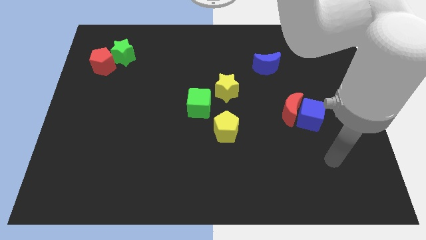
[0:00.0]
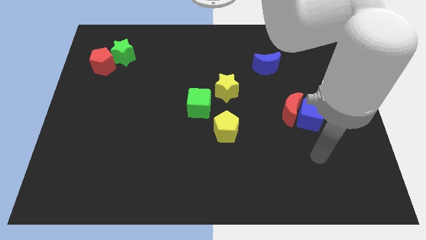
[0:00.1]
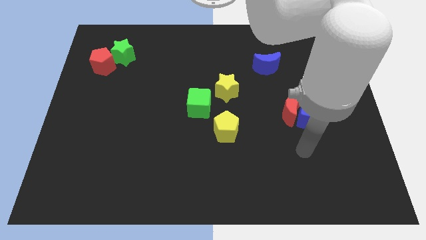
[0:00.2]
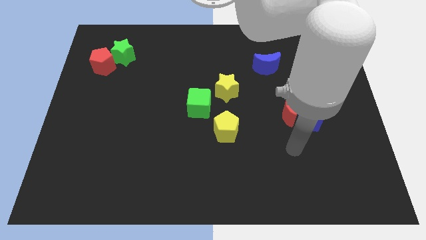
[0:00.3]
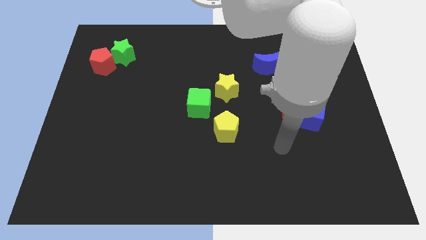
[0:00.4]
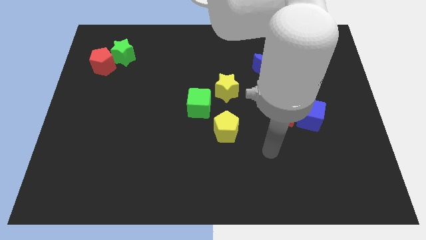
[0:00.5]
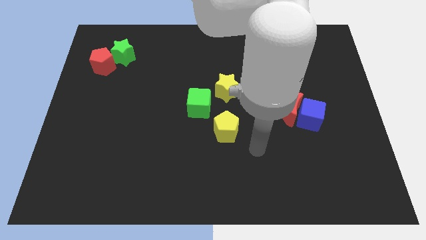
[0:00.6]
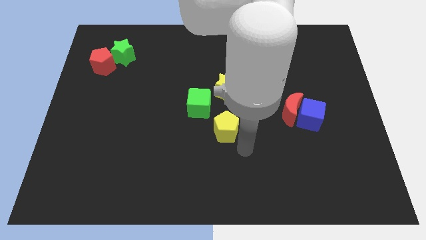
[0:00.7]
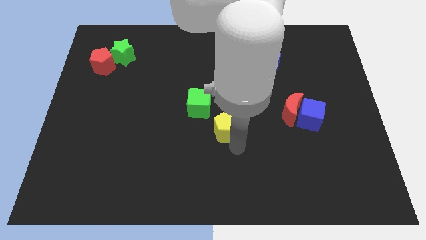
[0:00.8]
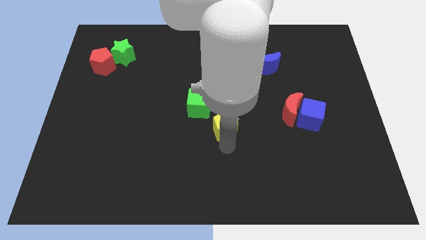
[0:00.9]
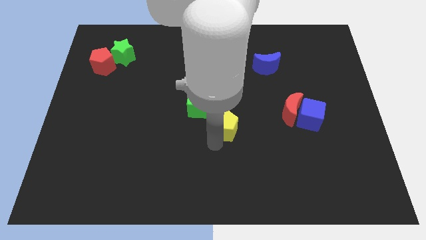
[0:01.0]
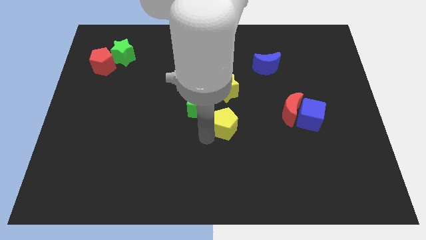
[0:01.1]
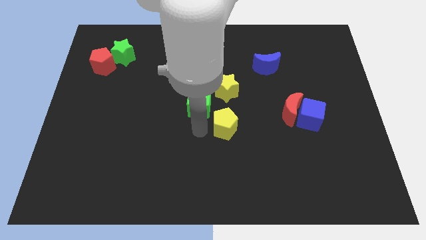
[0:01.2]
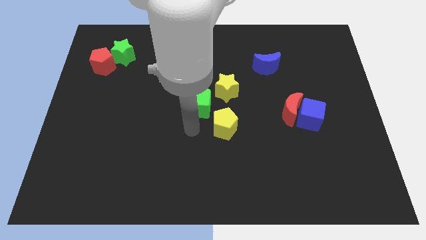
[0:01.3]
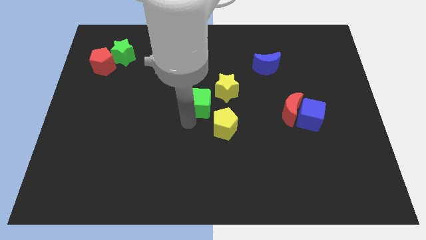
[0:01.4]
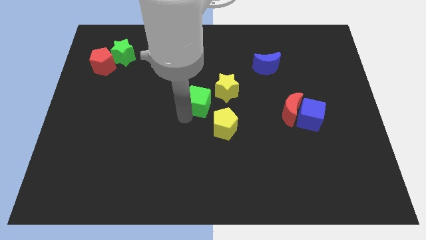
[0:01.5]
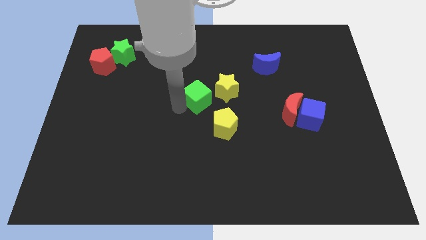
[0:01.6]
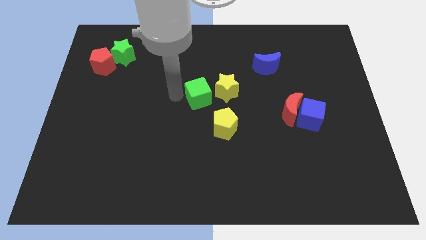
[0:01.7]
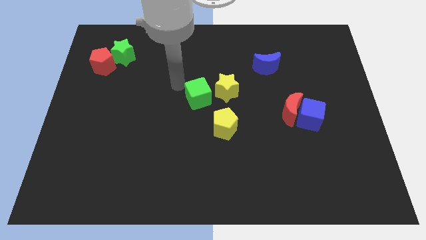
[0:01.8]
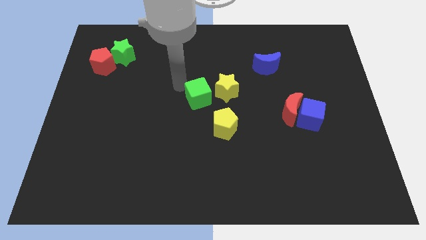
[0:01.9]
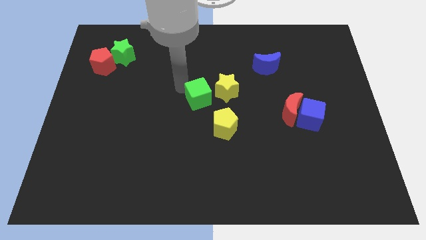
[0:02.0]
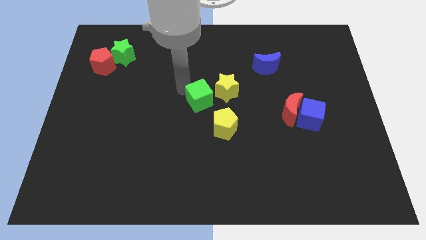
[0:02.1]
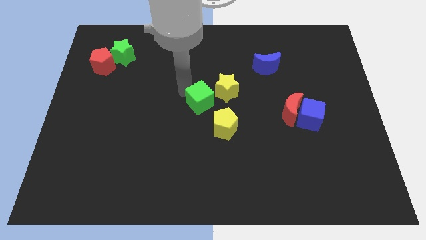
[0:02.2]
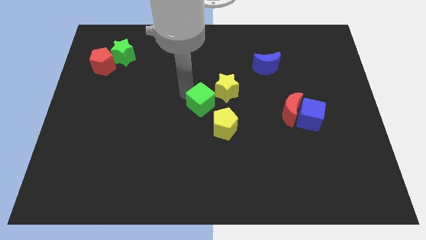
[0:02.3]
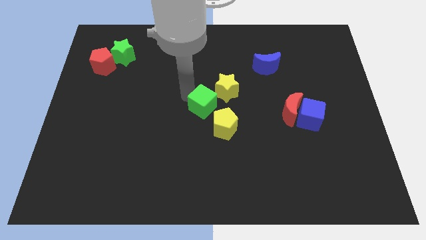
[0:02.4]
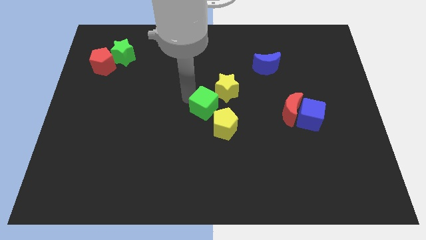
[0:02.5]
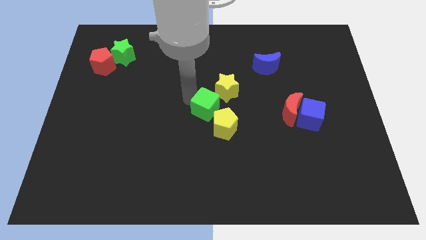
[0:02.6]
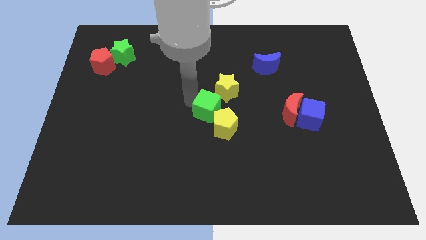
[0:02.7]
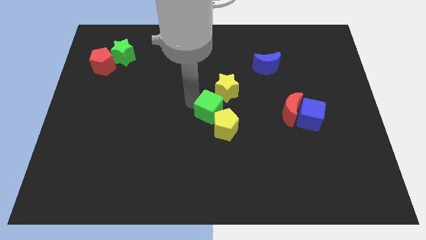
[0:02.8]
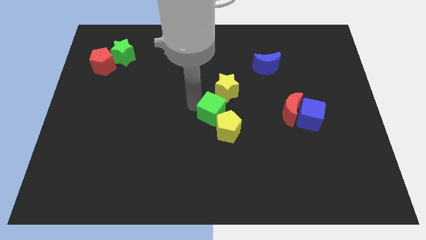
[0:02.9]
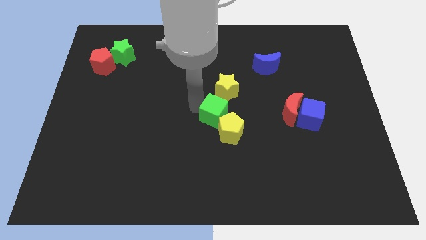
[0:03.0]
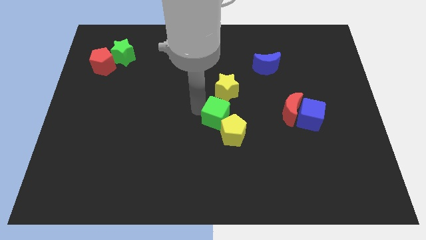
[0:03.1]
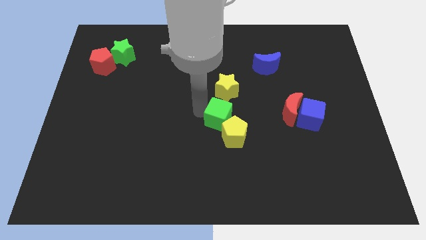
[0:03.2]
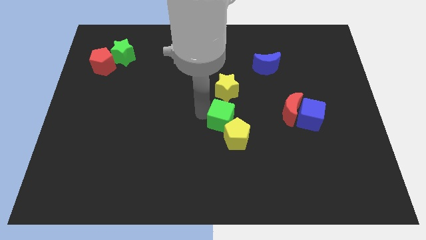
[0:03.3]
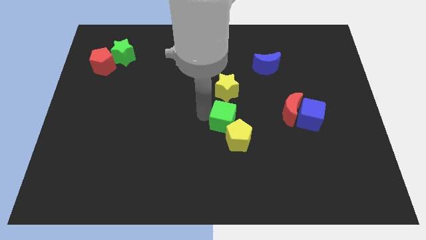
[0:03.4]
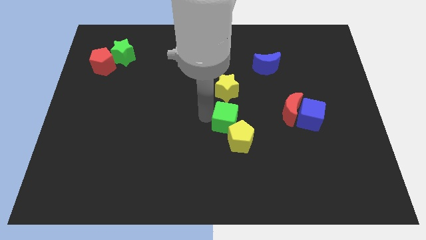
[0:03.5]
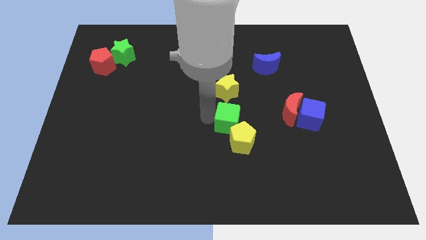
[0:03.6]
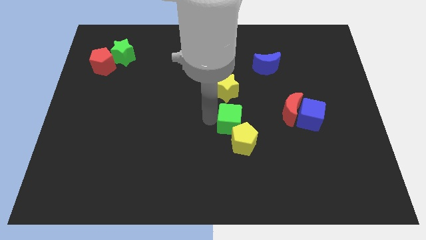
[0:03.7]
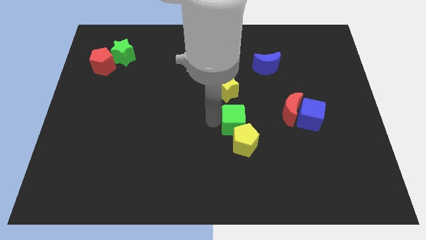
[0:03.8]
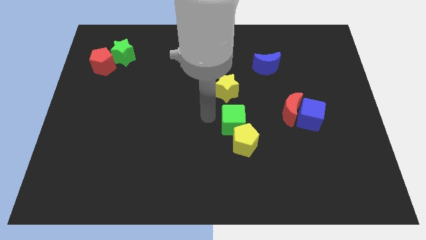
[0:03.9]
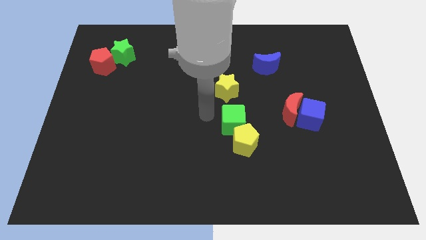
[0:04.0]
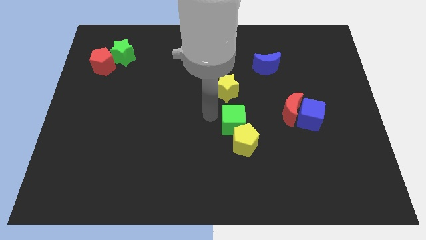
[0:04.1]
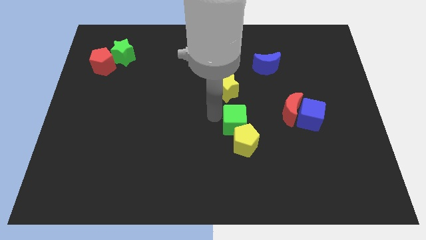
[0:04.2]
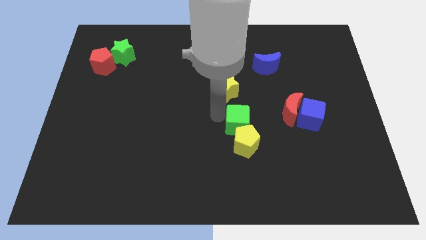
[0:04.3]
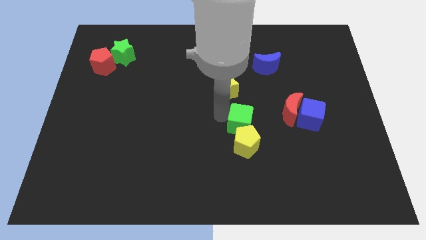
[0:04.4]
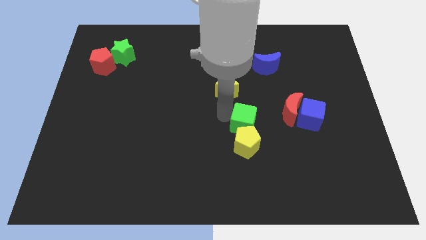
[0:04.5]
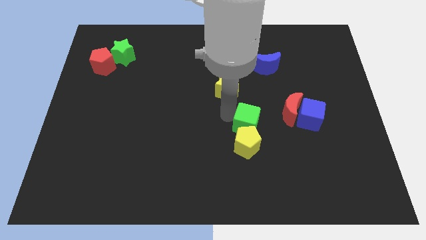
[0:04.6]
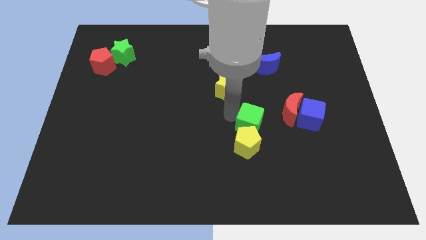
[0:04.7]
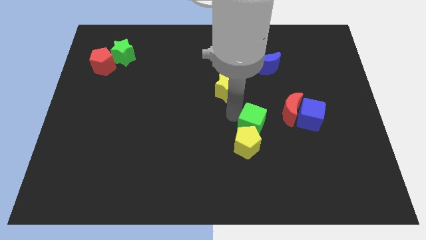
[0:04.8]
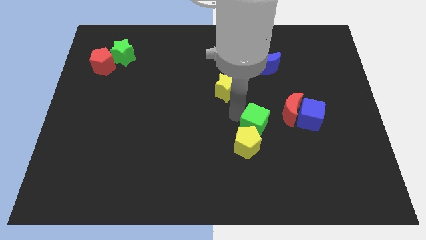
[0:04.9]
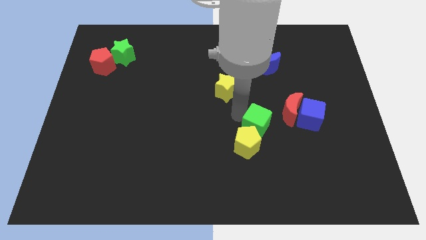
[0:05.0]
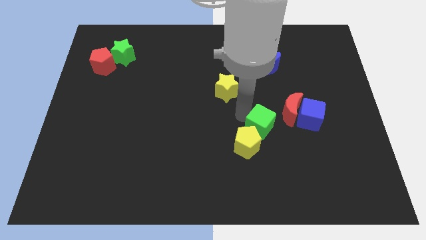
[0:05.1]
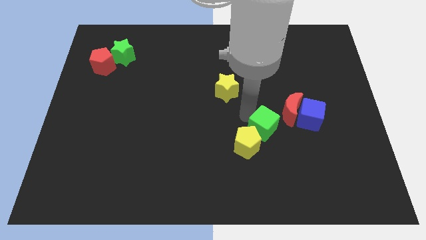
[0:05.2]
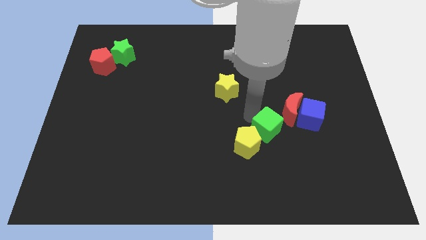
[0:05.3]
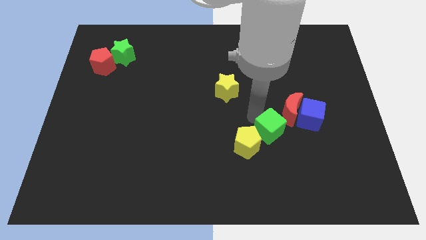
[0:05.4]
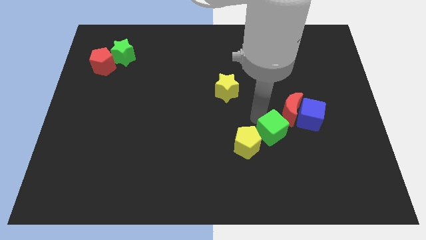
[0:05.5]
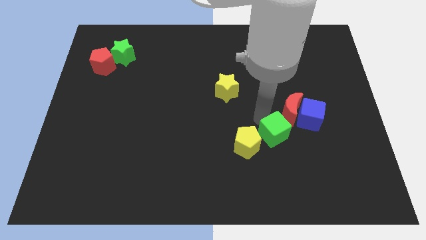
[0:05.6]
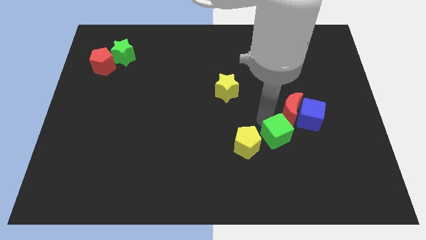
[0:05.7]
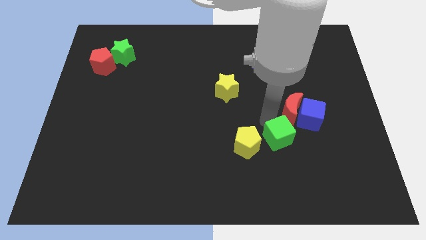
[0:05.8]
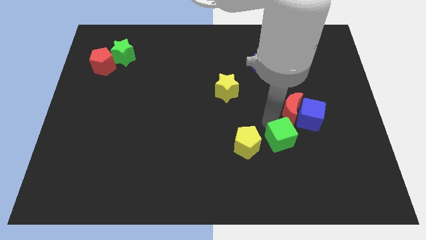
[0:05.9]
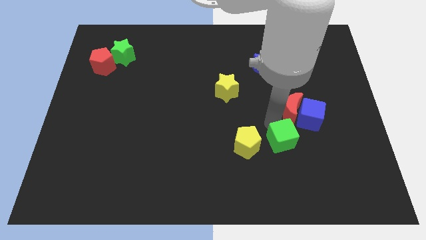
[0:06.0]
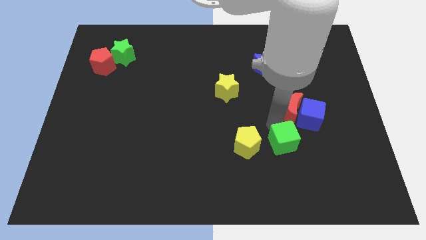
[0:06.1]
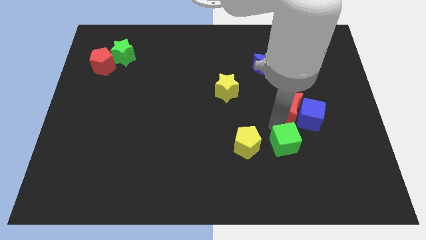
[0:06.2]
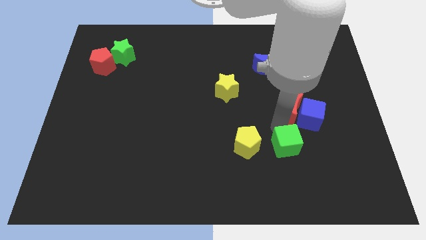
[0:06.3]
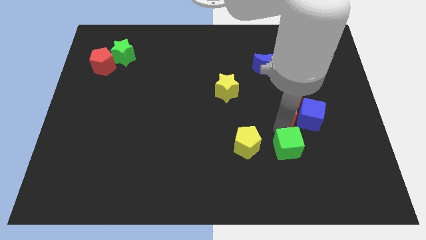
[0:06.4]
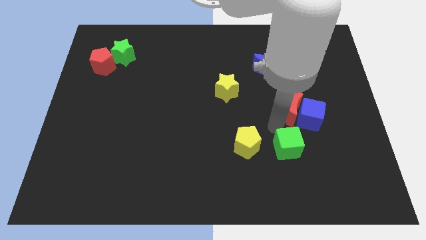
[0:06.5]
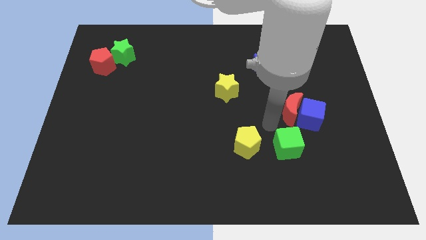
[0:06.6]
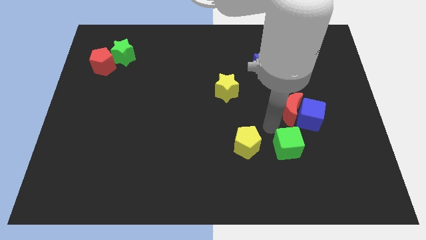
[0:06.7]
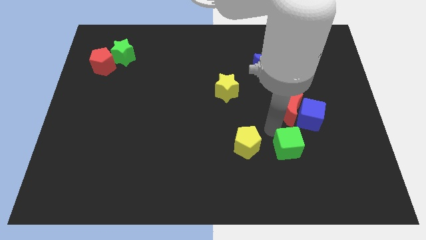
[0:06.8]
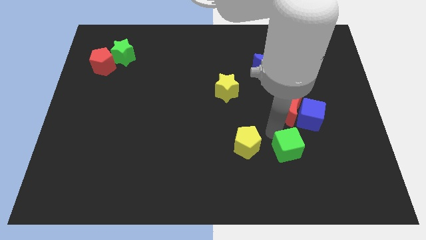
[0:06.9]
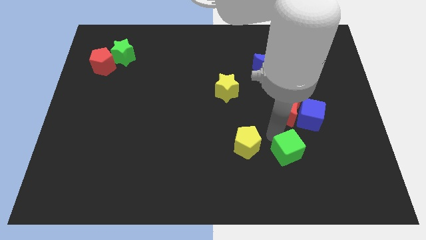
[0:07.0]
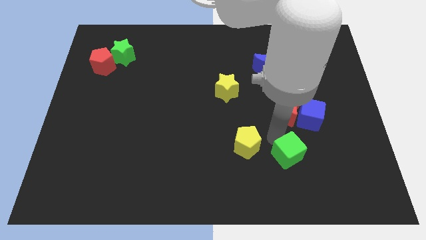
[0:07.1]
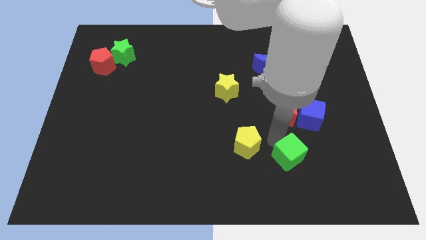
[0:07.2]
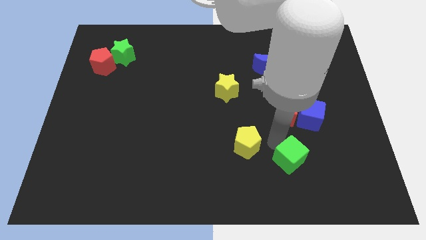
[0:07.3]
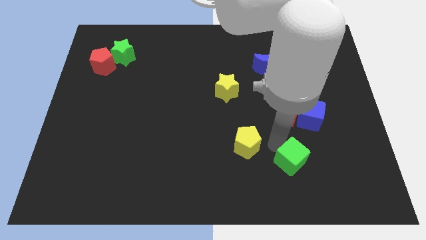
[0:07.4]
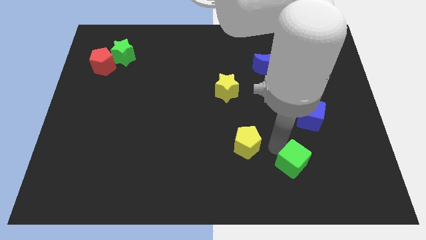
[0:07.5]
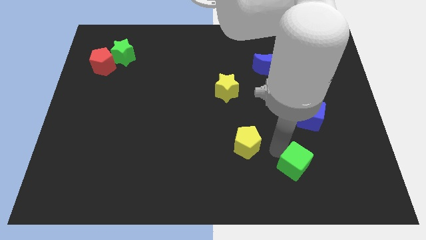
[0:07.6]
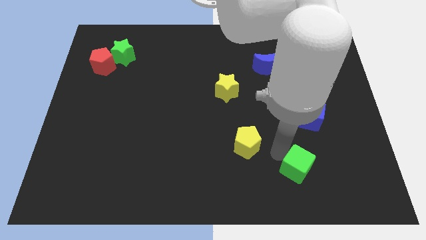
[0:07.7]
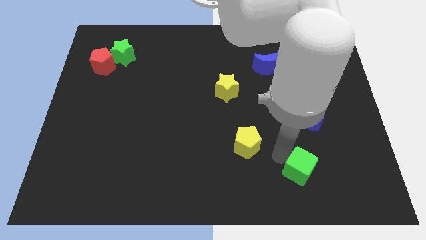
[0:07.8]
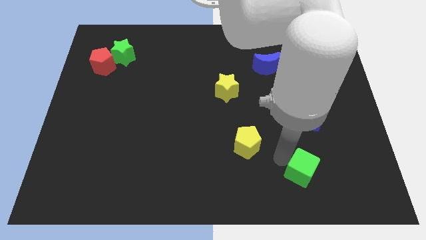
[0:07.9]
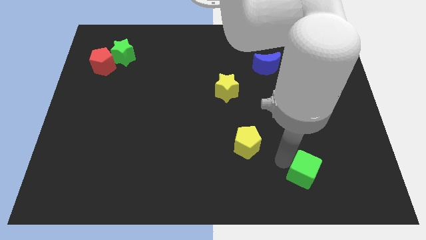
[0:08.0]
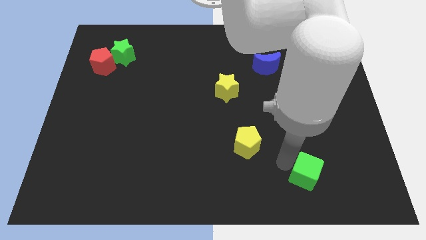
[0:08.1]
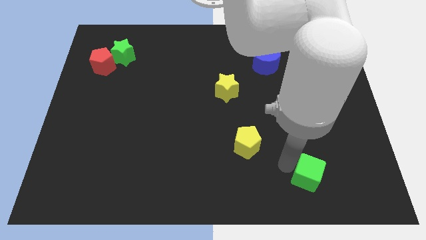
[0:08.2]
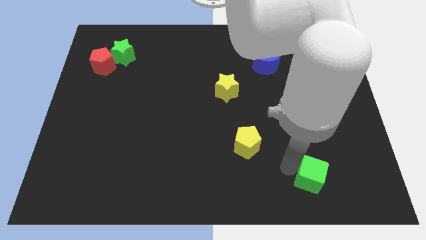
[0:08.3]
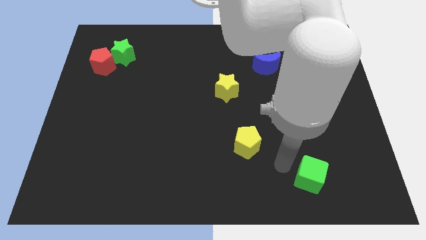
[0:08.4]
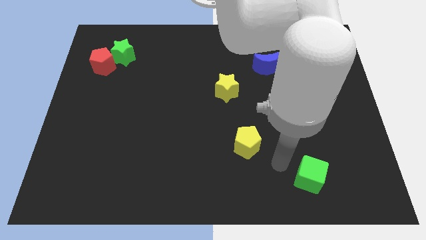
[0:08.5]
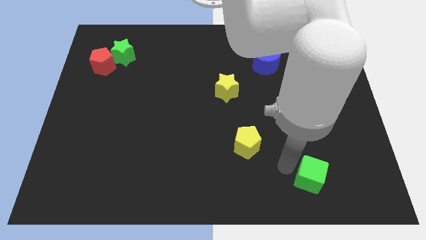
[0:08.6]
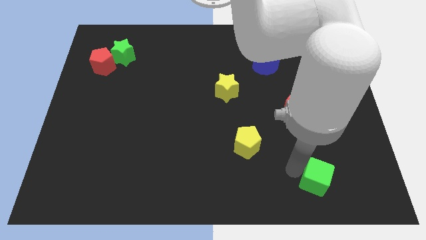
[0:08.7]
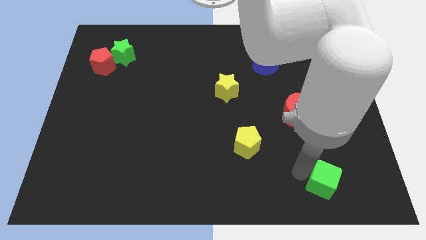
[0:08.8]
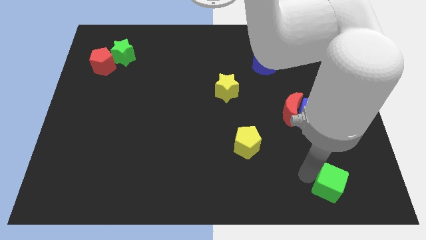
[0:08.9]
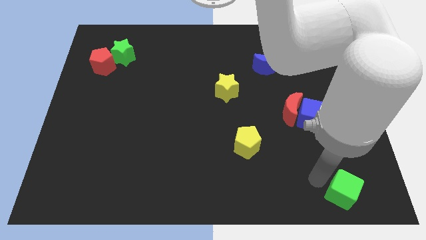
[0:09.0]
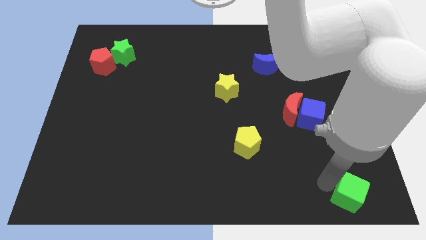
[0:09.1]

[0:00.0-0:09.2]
put the green cube to the lower right corner
